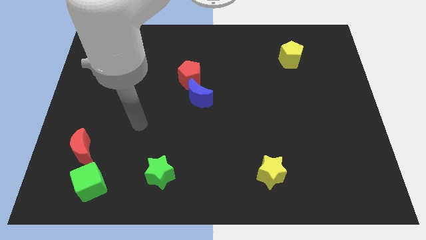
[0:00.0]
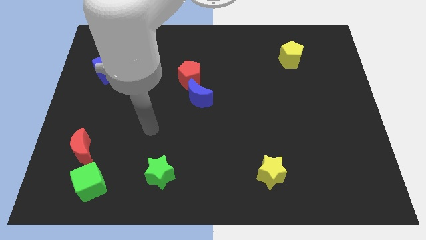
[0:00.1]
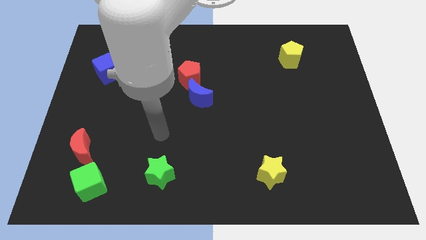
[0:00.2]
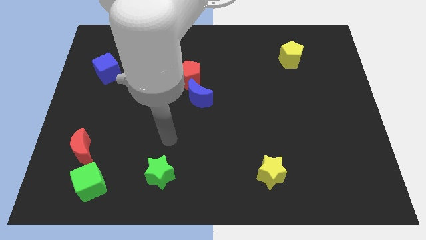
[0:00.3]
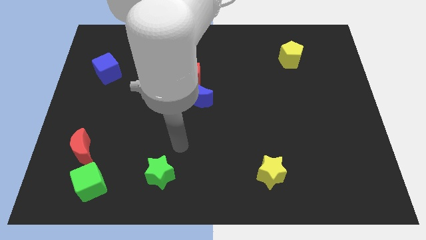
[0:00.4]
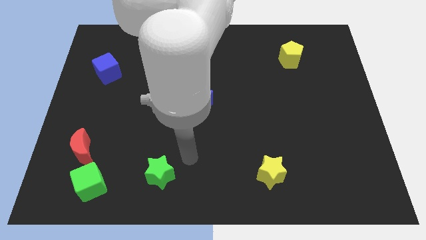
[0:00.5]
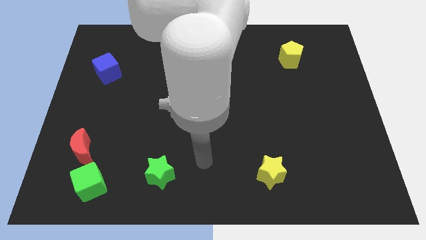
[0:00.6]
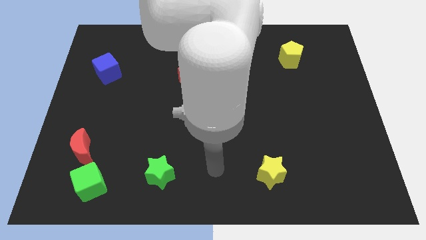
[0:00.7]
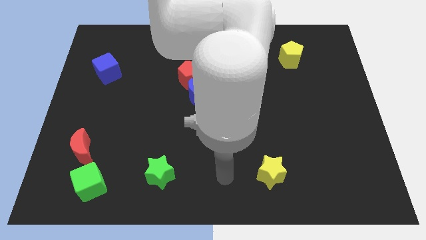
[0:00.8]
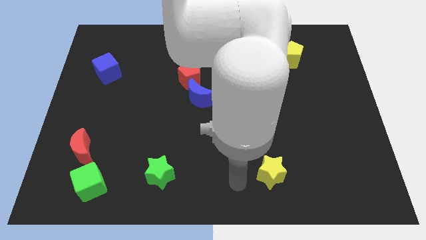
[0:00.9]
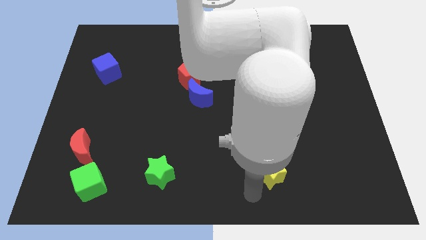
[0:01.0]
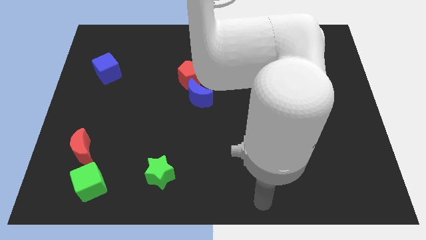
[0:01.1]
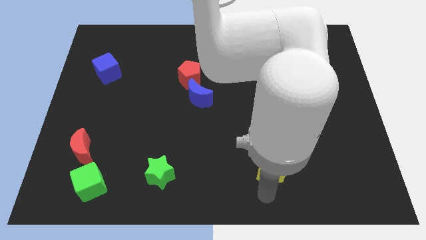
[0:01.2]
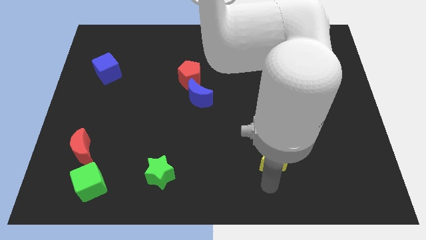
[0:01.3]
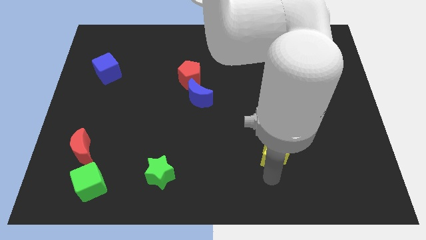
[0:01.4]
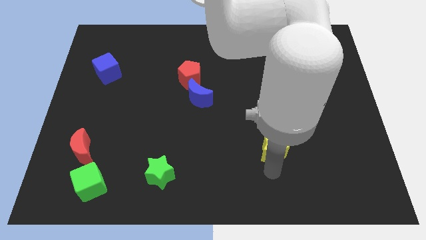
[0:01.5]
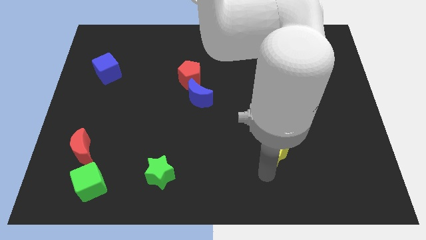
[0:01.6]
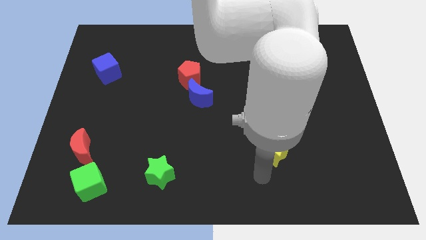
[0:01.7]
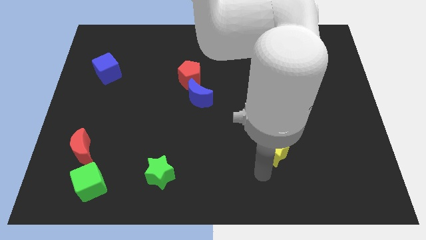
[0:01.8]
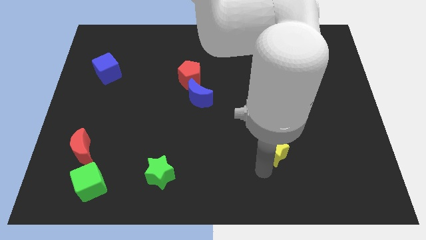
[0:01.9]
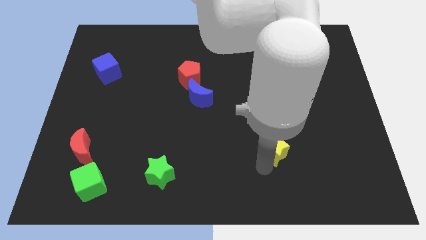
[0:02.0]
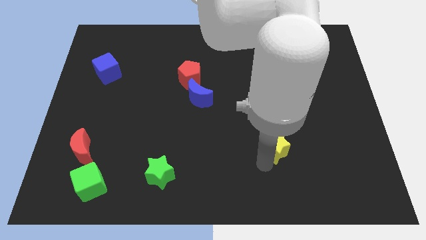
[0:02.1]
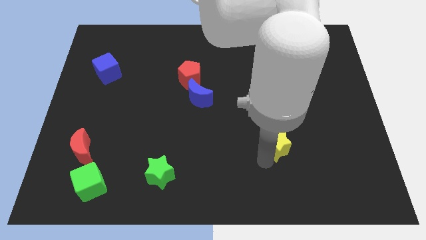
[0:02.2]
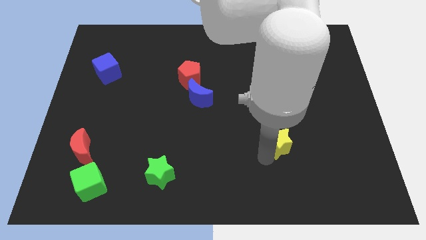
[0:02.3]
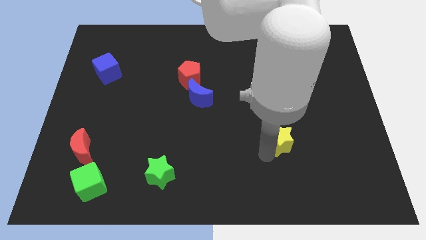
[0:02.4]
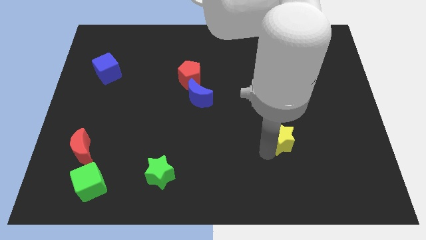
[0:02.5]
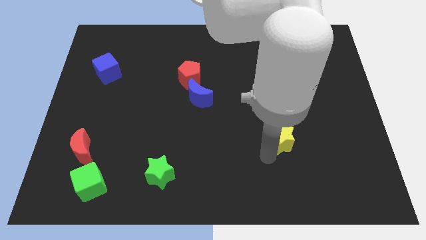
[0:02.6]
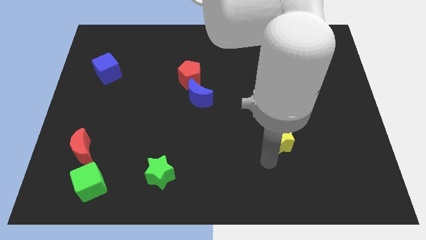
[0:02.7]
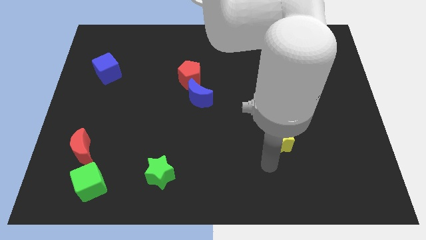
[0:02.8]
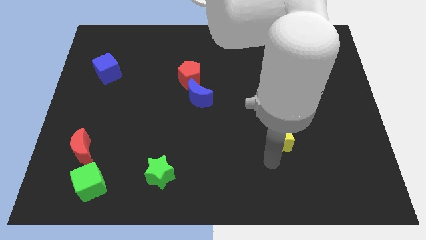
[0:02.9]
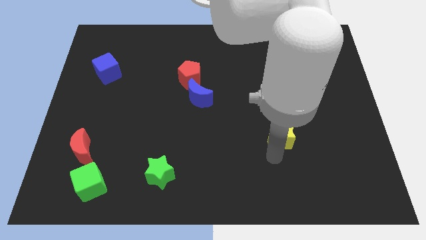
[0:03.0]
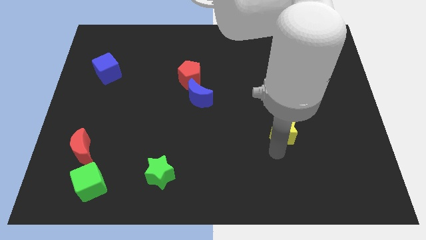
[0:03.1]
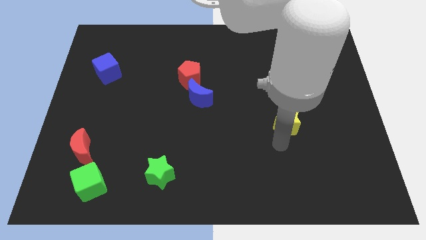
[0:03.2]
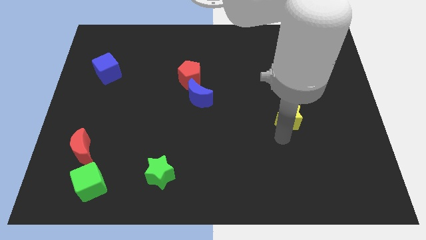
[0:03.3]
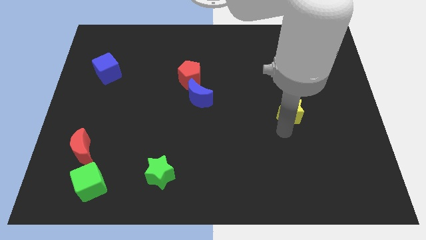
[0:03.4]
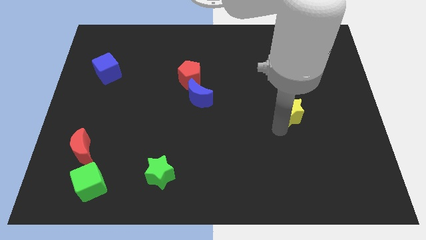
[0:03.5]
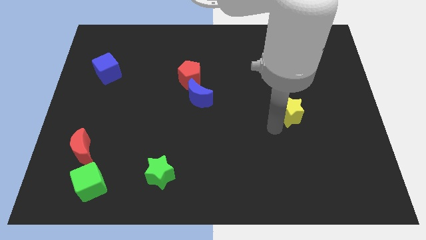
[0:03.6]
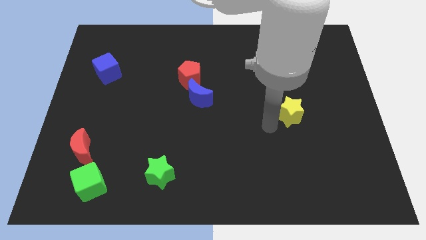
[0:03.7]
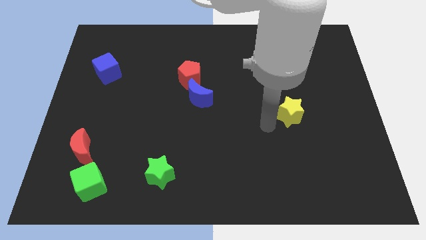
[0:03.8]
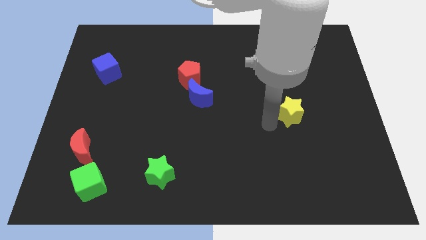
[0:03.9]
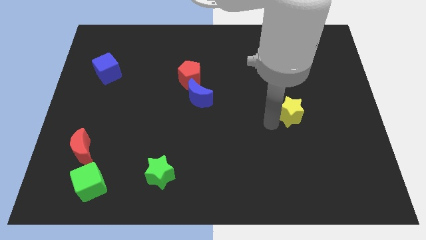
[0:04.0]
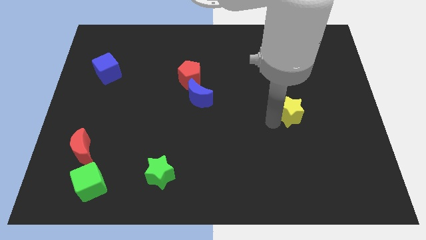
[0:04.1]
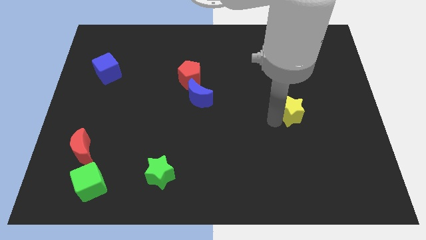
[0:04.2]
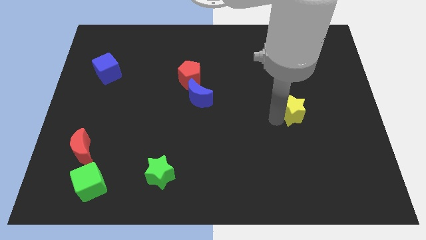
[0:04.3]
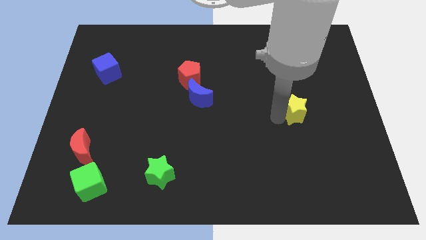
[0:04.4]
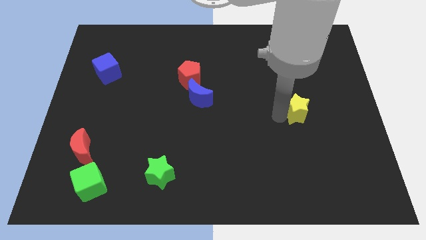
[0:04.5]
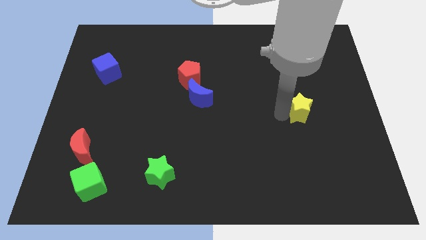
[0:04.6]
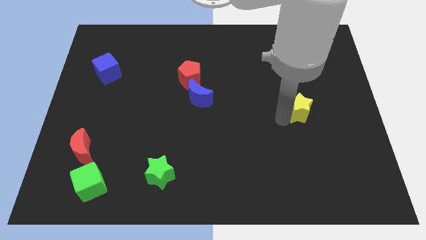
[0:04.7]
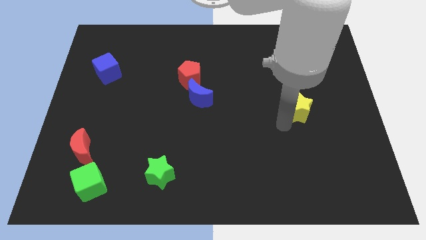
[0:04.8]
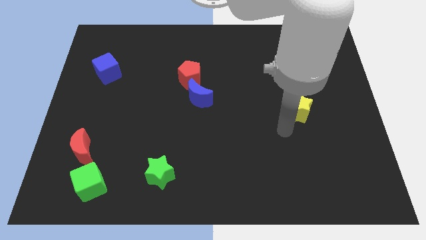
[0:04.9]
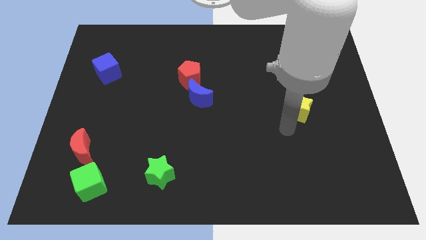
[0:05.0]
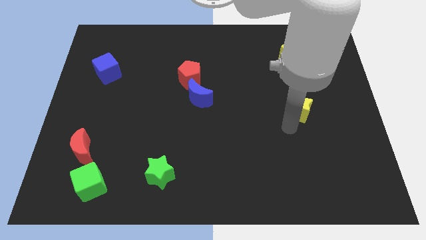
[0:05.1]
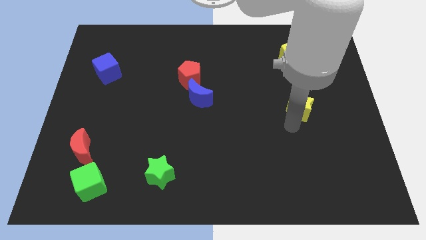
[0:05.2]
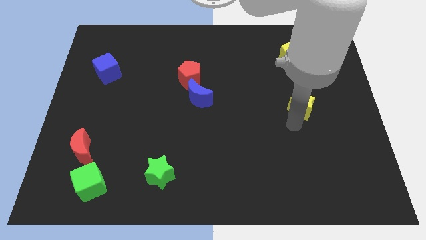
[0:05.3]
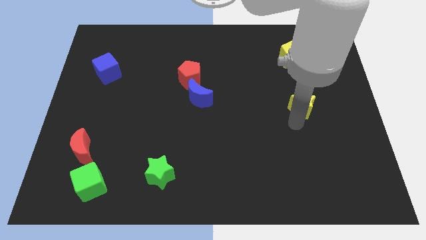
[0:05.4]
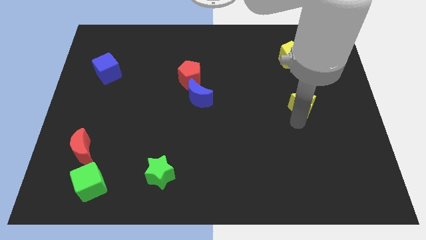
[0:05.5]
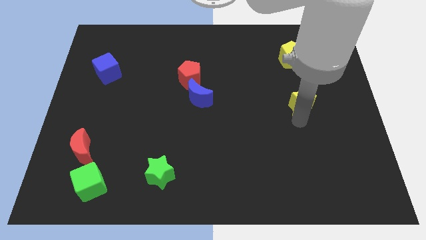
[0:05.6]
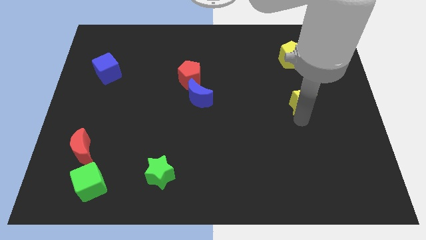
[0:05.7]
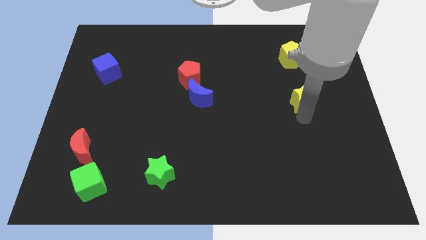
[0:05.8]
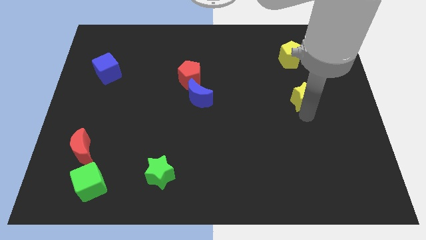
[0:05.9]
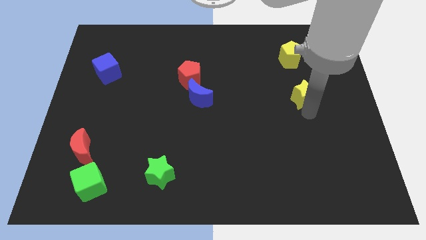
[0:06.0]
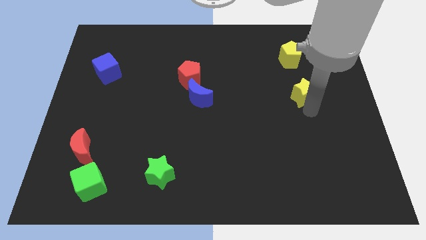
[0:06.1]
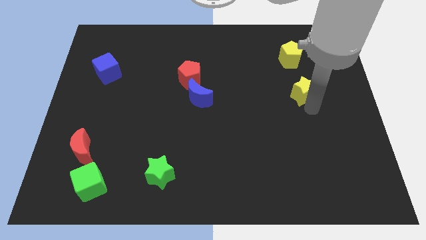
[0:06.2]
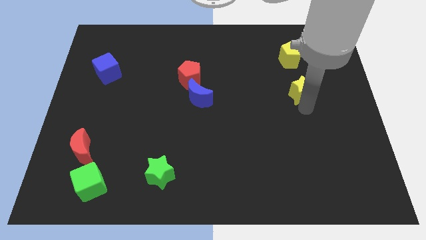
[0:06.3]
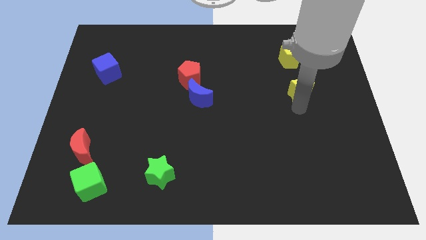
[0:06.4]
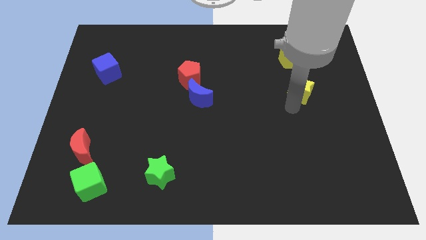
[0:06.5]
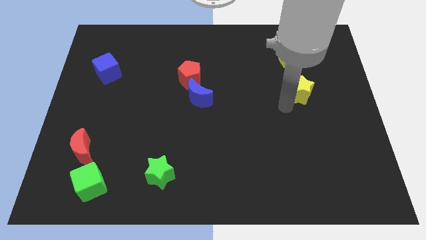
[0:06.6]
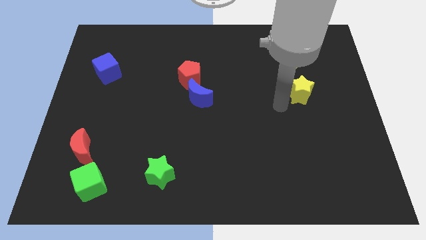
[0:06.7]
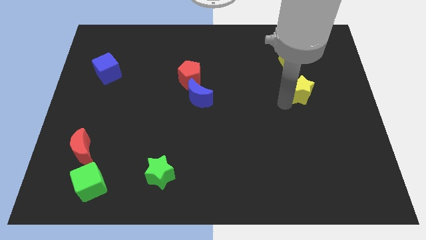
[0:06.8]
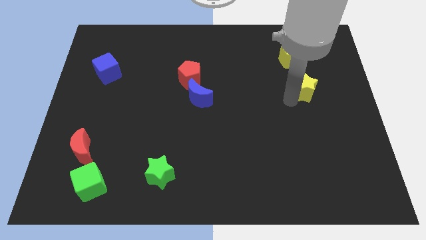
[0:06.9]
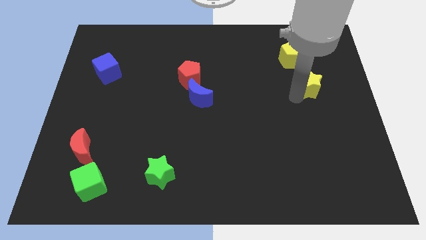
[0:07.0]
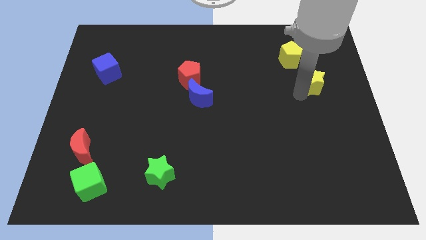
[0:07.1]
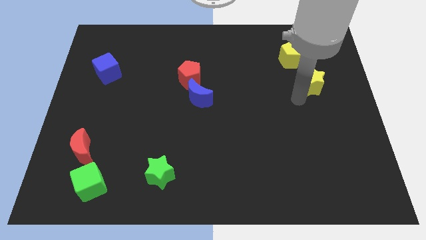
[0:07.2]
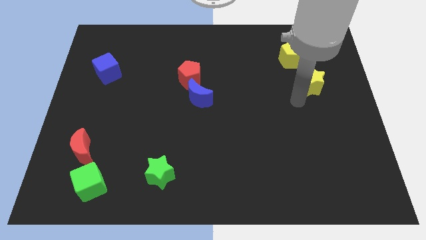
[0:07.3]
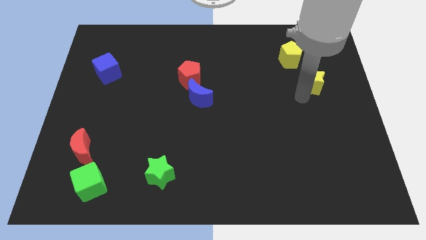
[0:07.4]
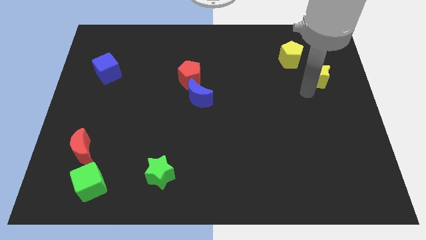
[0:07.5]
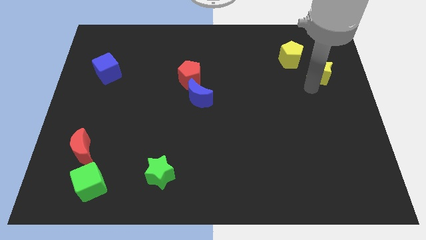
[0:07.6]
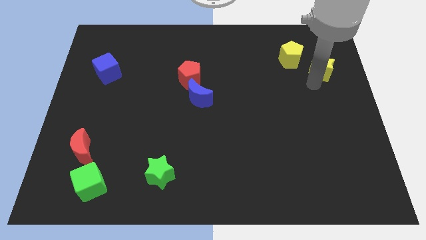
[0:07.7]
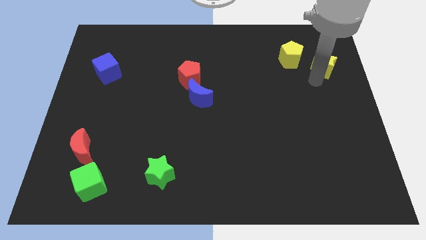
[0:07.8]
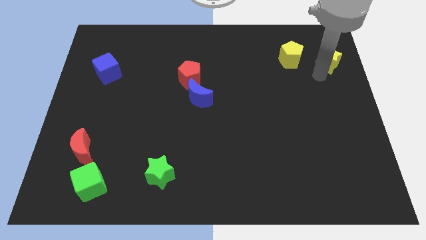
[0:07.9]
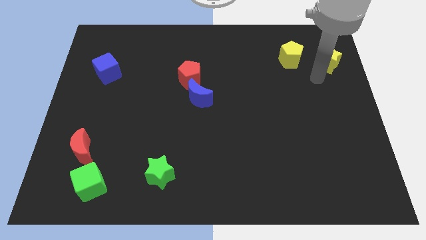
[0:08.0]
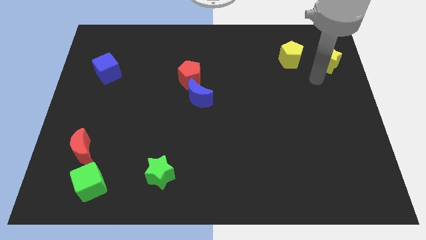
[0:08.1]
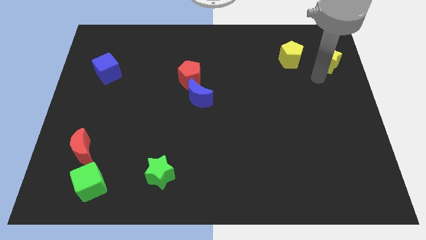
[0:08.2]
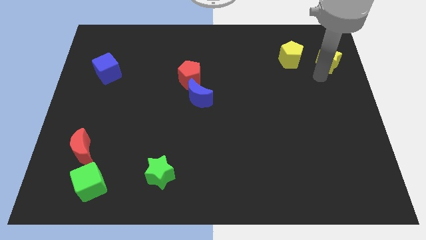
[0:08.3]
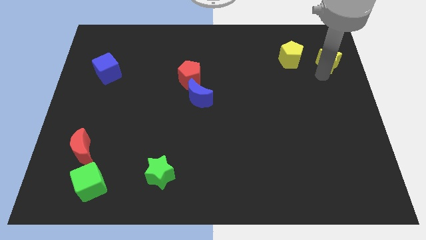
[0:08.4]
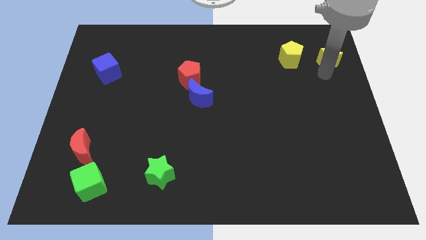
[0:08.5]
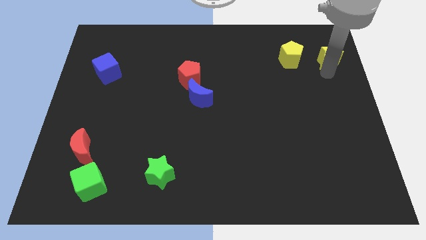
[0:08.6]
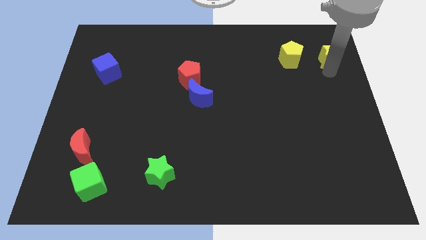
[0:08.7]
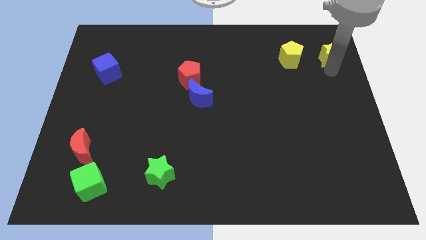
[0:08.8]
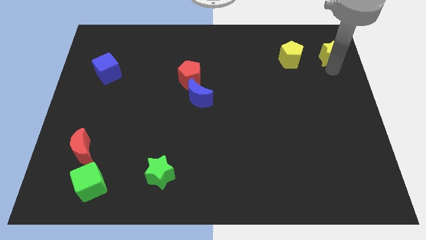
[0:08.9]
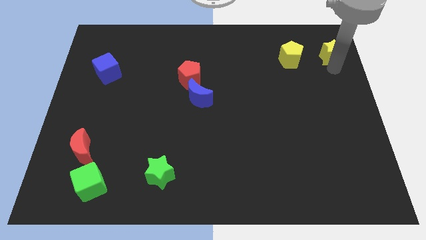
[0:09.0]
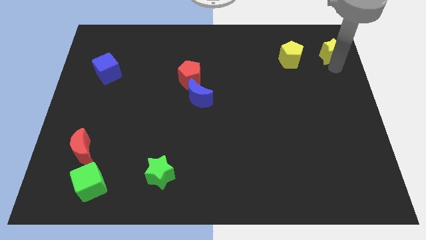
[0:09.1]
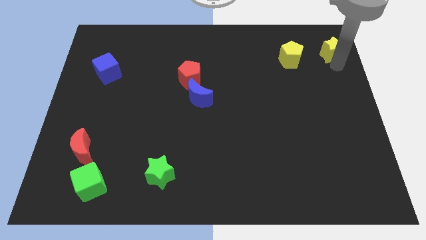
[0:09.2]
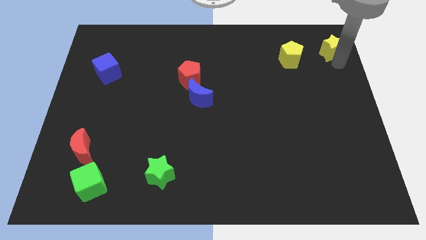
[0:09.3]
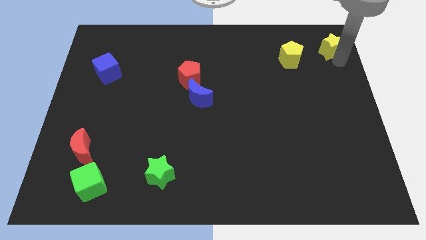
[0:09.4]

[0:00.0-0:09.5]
put the yellow star to the top right corner
